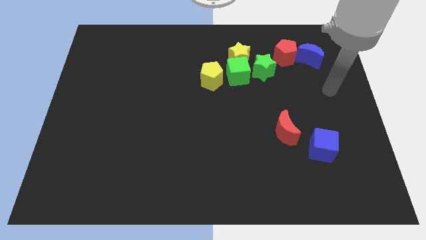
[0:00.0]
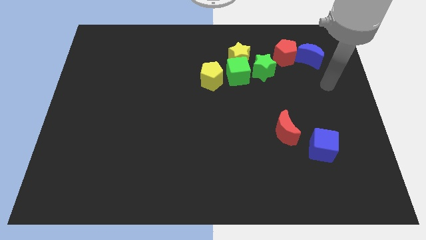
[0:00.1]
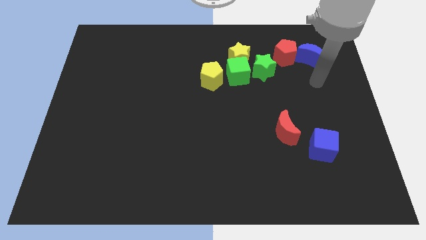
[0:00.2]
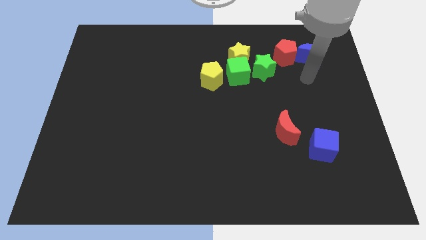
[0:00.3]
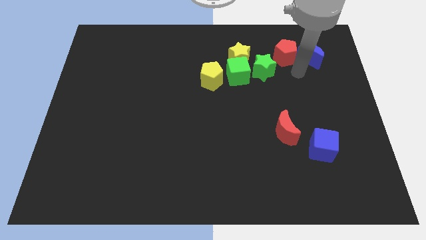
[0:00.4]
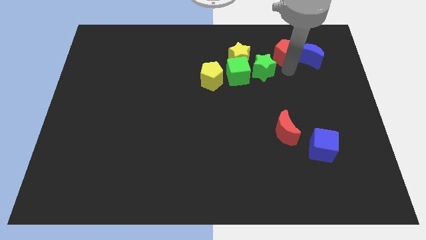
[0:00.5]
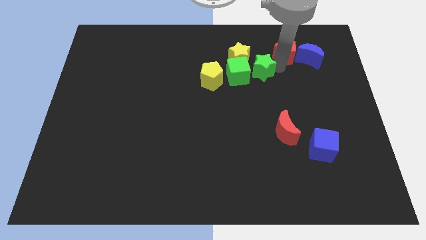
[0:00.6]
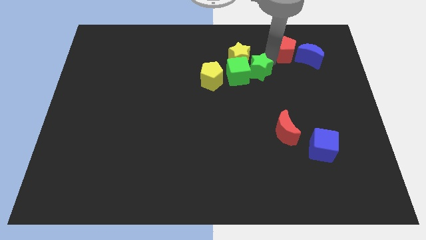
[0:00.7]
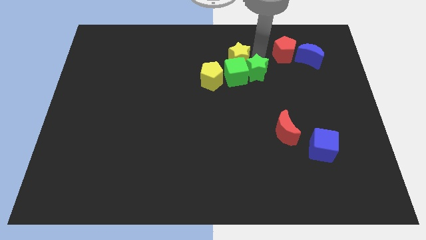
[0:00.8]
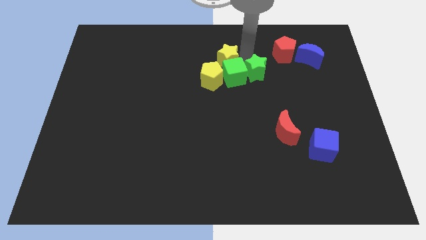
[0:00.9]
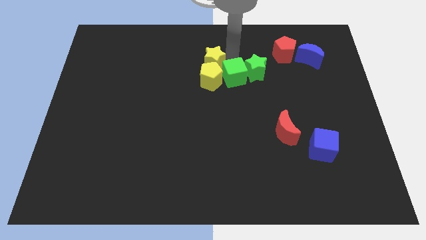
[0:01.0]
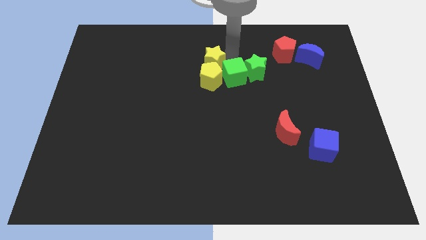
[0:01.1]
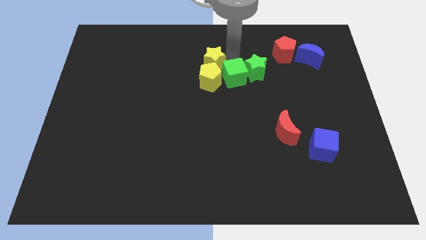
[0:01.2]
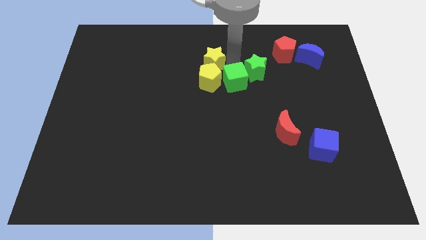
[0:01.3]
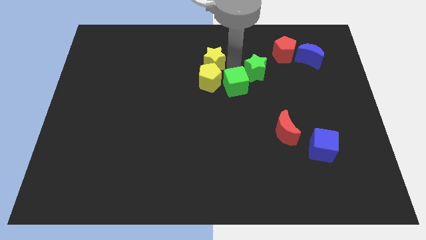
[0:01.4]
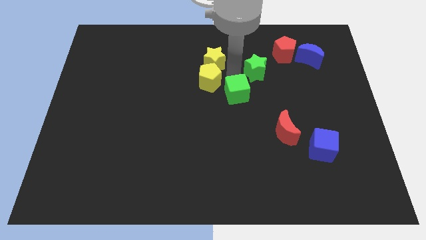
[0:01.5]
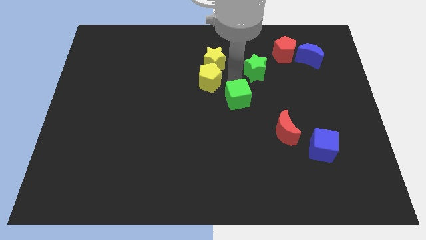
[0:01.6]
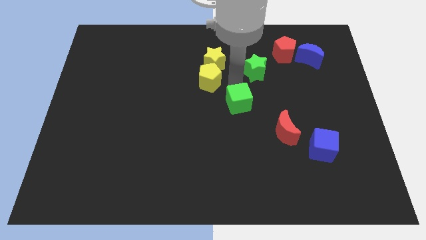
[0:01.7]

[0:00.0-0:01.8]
separate the green cube from the yellow star, green star, and yellow pentagon

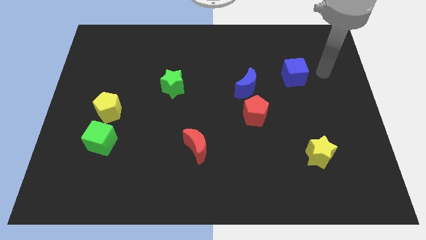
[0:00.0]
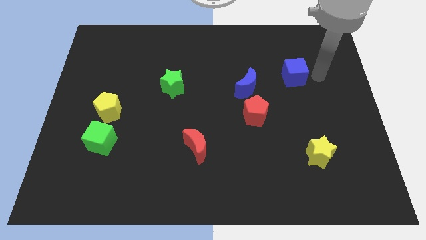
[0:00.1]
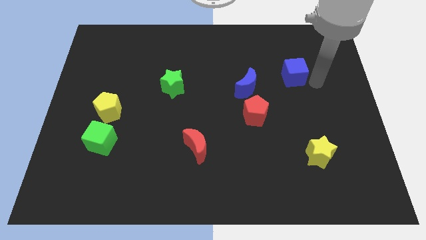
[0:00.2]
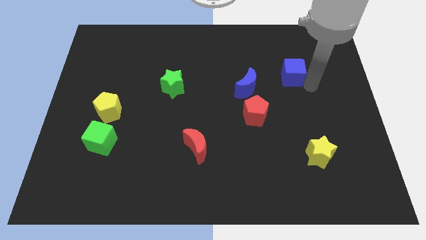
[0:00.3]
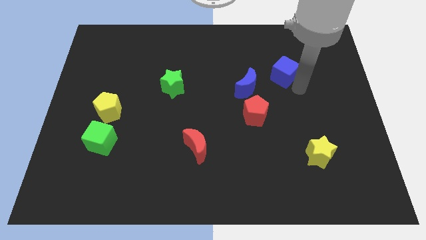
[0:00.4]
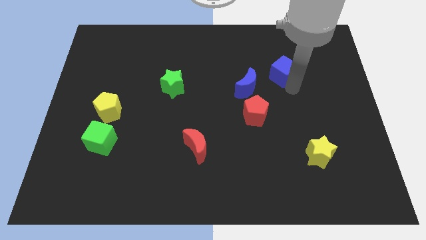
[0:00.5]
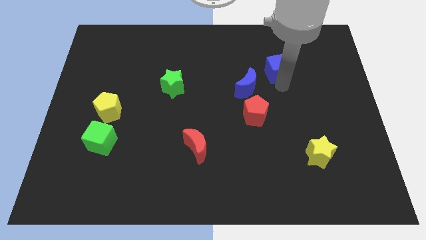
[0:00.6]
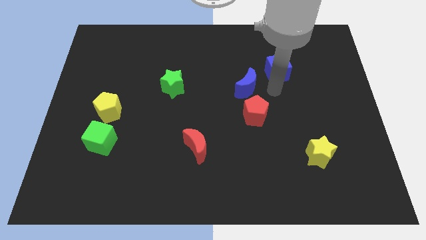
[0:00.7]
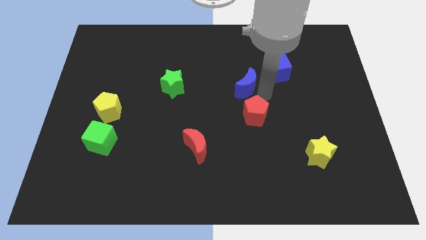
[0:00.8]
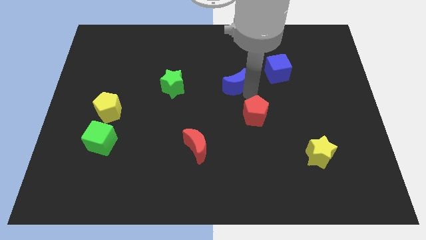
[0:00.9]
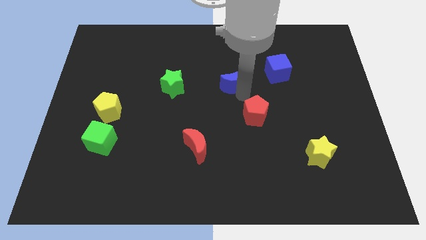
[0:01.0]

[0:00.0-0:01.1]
move the red pentagon away from the blue moon

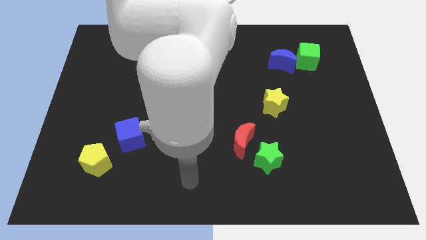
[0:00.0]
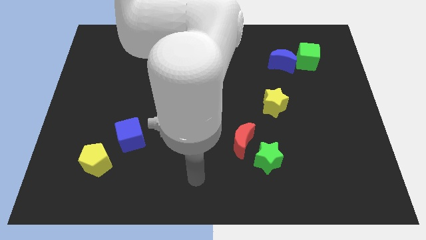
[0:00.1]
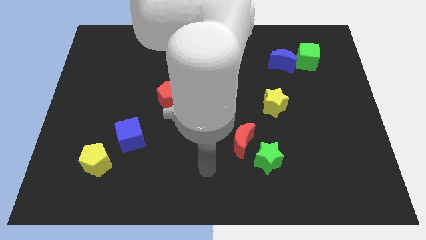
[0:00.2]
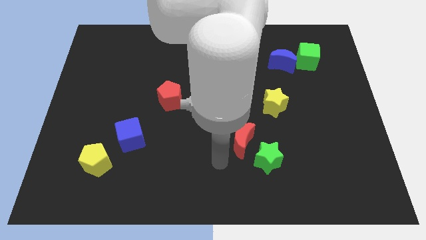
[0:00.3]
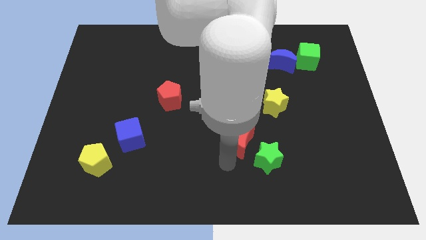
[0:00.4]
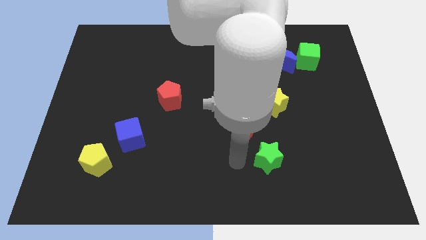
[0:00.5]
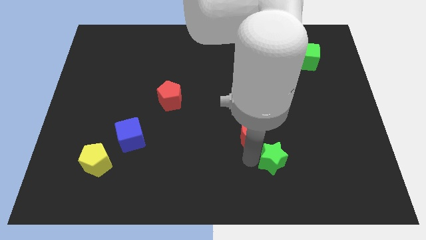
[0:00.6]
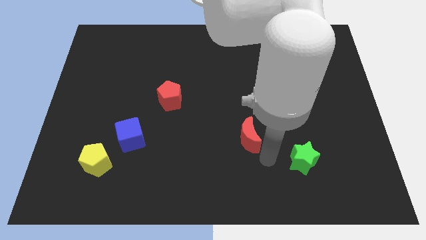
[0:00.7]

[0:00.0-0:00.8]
separate the red moon from the green star

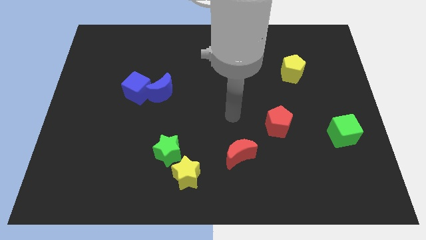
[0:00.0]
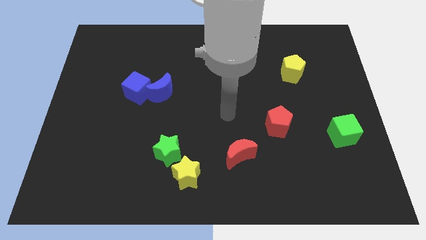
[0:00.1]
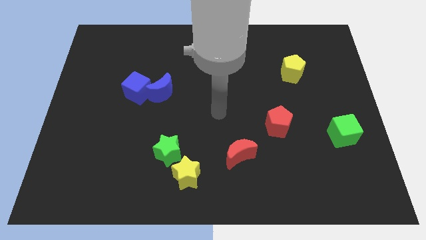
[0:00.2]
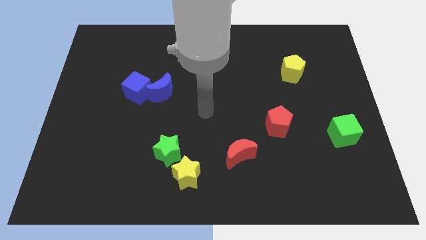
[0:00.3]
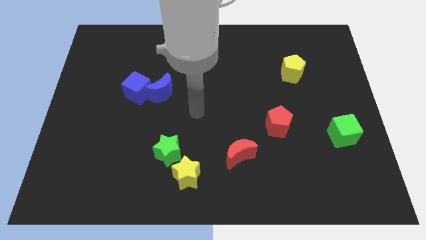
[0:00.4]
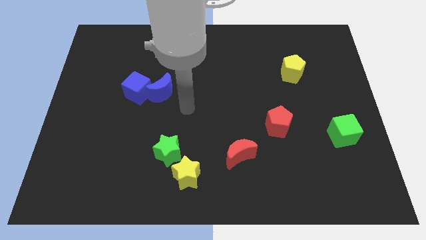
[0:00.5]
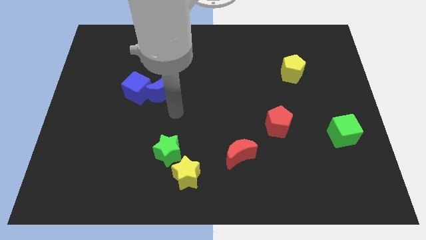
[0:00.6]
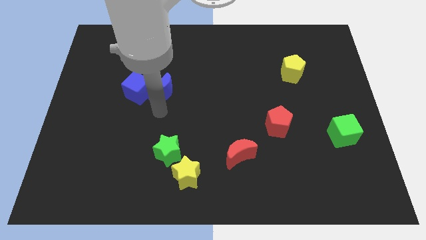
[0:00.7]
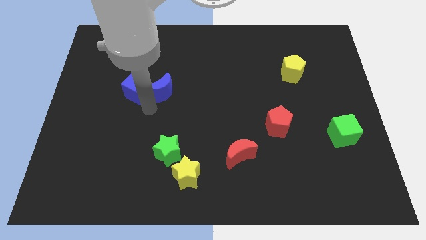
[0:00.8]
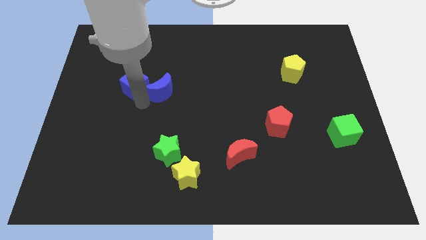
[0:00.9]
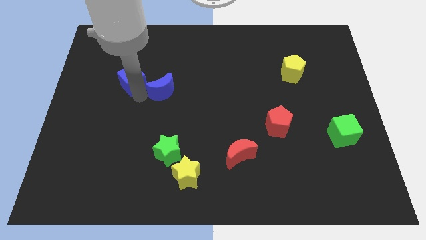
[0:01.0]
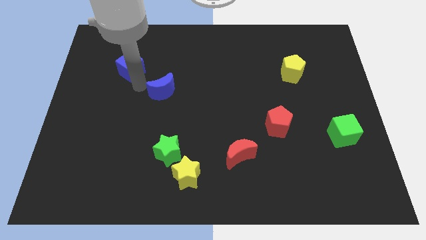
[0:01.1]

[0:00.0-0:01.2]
separate the blue moon from the blue cube

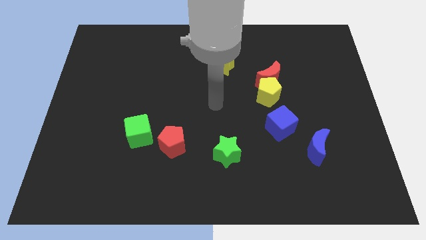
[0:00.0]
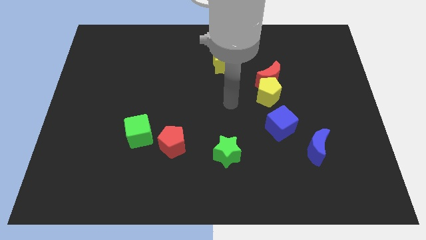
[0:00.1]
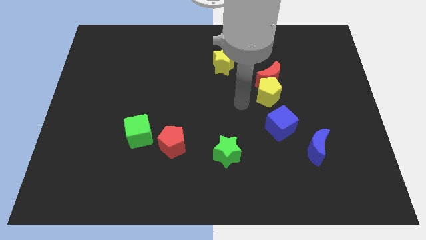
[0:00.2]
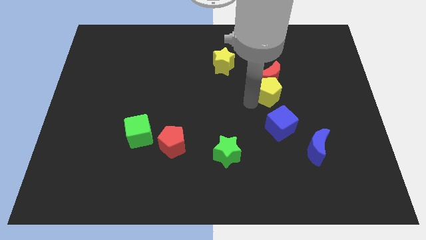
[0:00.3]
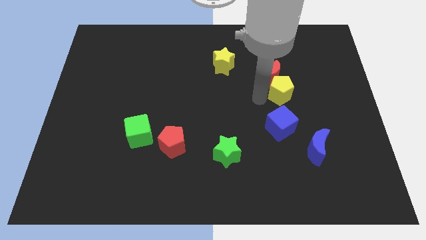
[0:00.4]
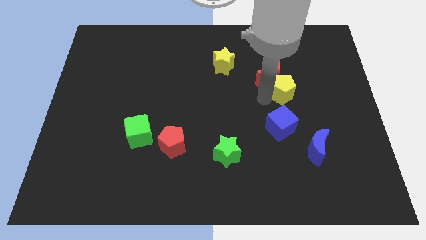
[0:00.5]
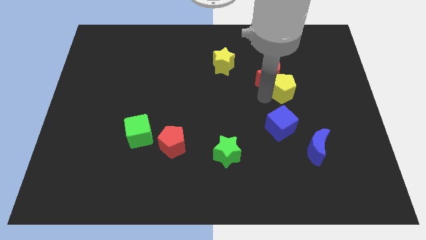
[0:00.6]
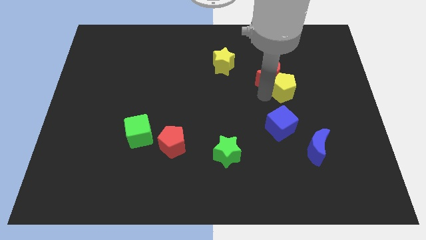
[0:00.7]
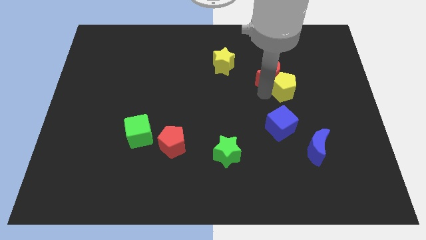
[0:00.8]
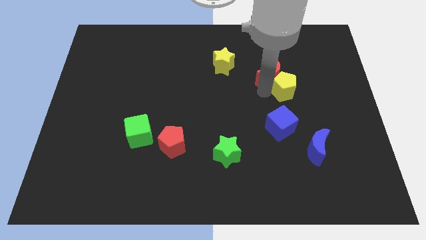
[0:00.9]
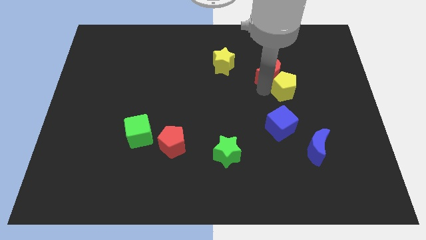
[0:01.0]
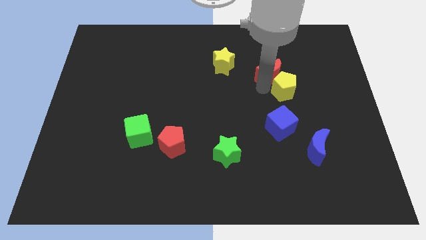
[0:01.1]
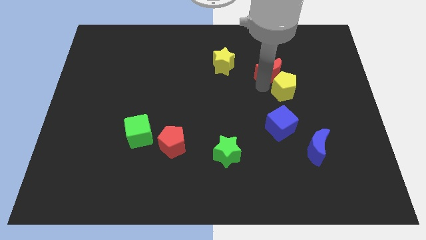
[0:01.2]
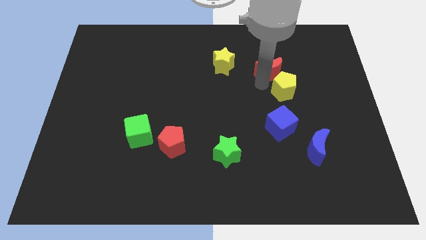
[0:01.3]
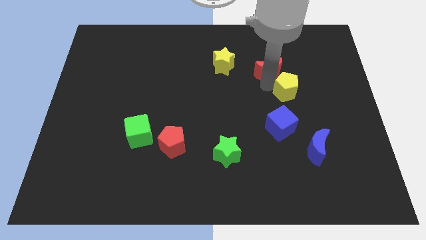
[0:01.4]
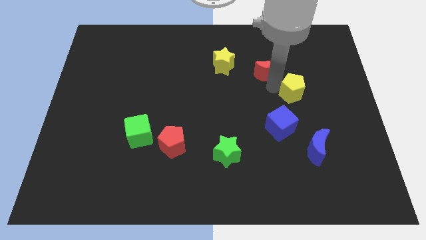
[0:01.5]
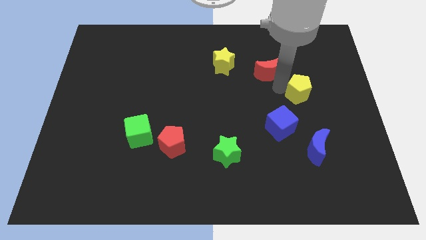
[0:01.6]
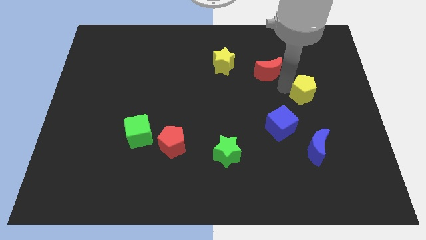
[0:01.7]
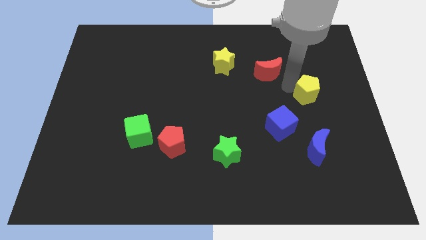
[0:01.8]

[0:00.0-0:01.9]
separate the red moon from the yellow pentagon

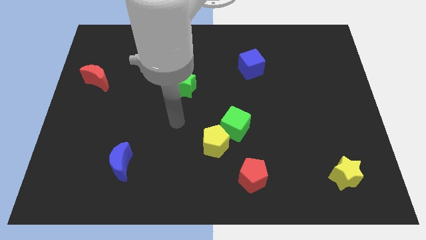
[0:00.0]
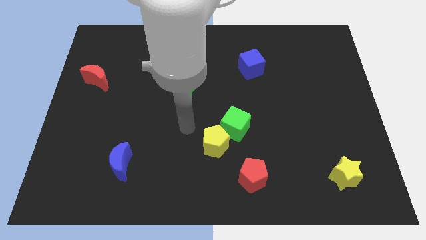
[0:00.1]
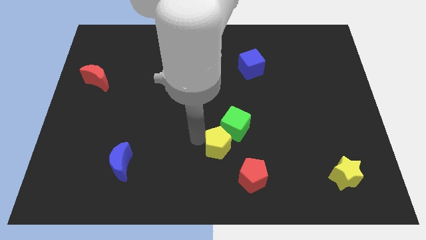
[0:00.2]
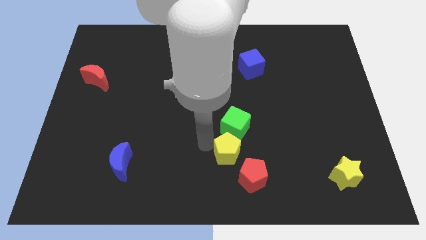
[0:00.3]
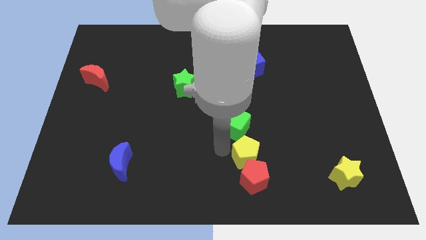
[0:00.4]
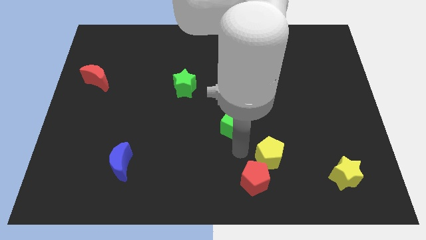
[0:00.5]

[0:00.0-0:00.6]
move the green cube away from the yellow pentagon

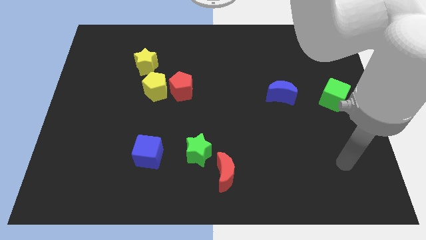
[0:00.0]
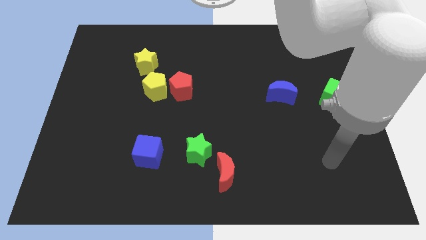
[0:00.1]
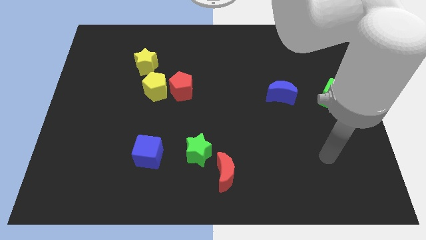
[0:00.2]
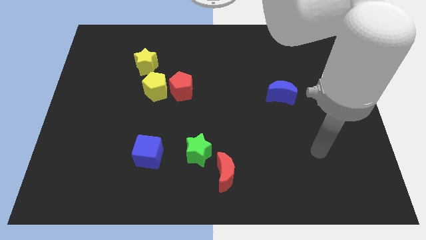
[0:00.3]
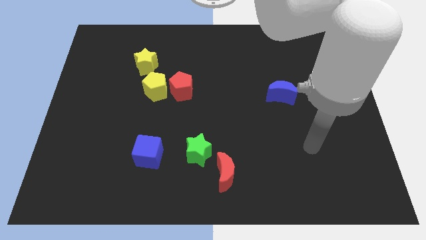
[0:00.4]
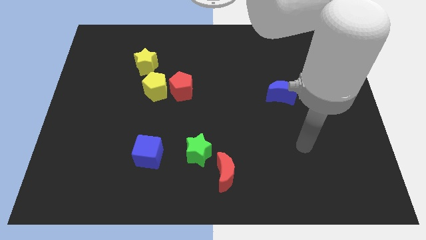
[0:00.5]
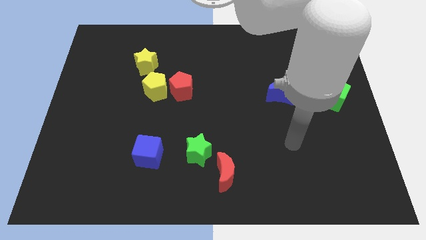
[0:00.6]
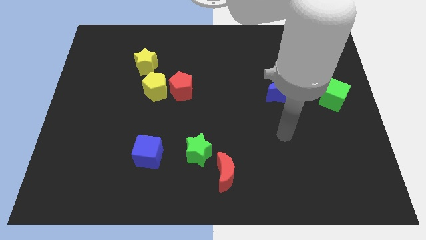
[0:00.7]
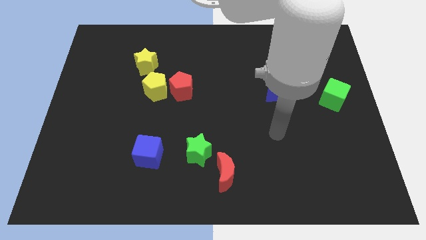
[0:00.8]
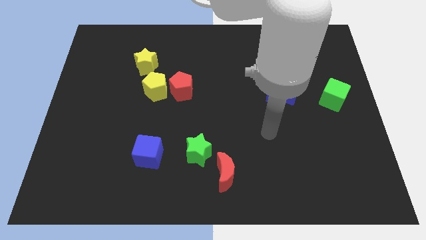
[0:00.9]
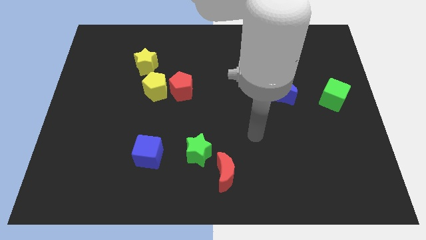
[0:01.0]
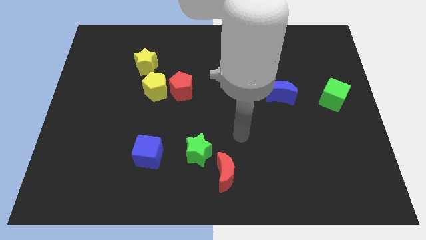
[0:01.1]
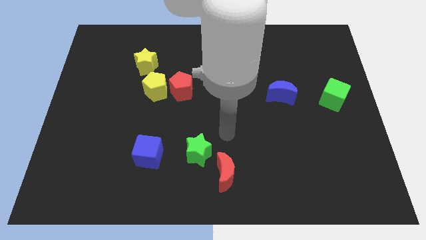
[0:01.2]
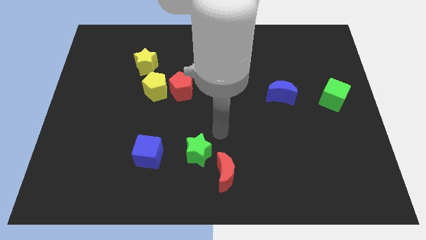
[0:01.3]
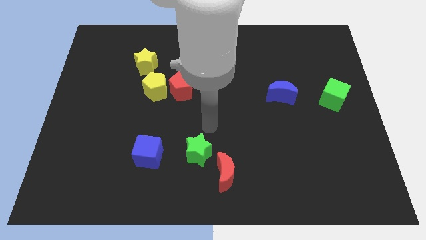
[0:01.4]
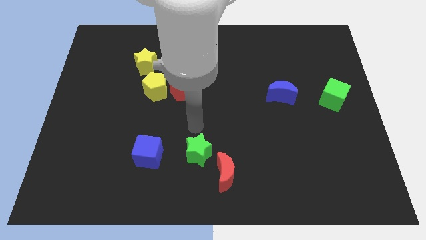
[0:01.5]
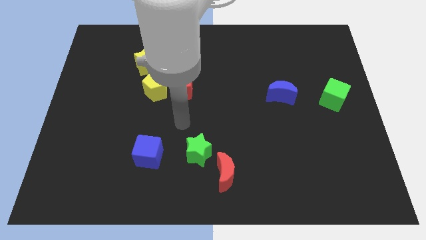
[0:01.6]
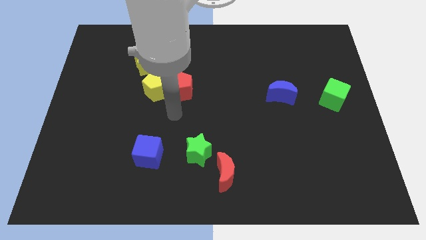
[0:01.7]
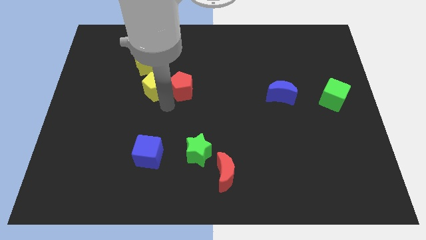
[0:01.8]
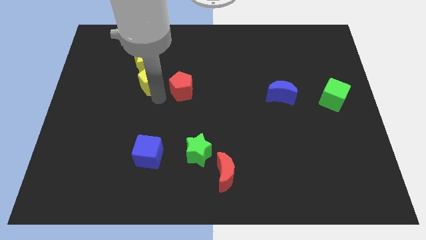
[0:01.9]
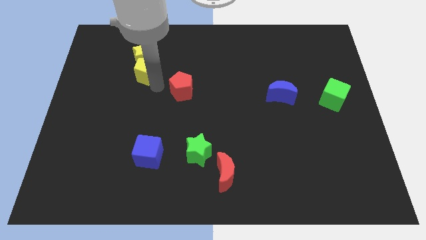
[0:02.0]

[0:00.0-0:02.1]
pull the red pentagon apart from the yellow pentagon
